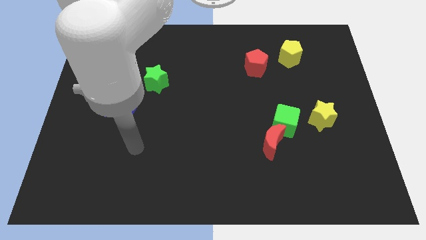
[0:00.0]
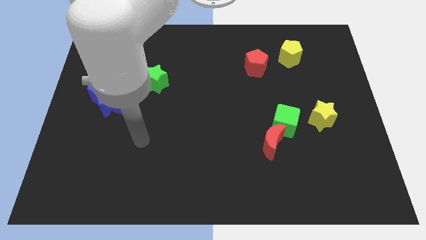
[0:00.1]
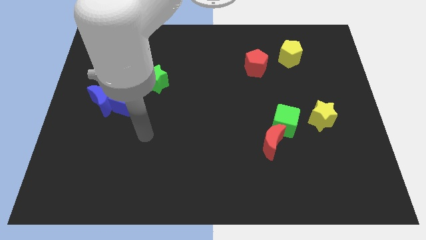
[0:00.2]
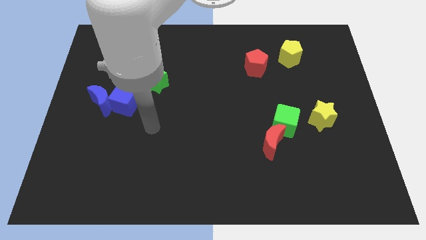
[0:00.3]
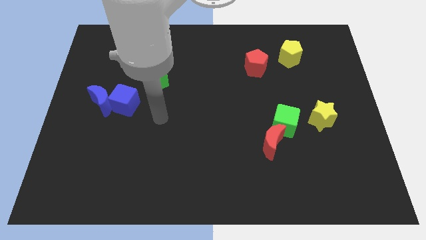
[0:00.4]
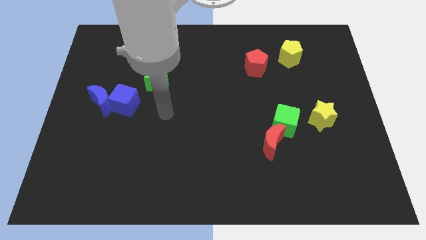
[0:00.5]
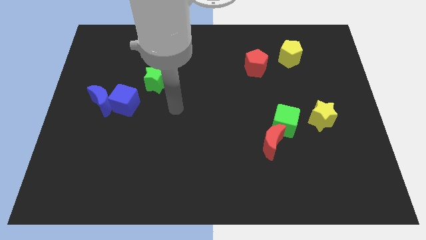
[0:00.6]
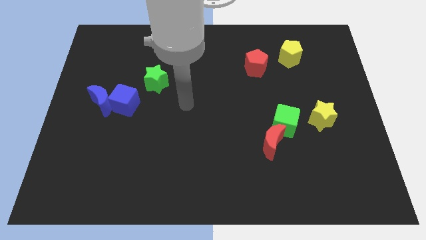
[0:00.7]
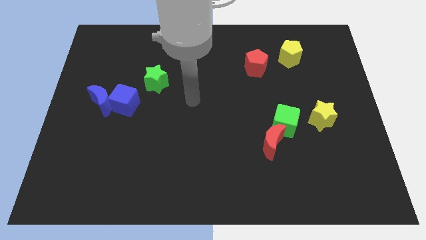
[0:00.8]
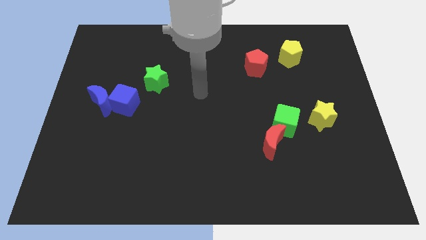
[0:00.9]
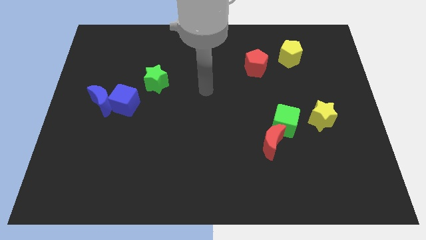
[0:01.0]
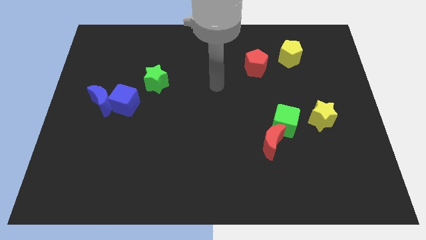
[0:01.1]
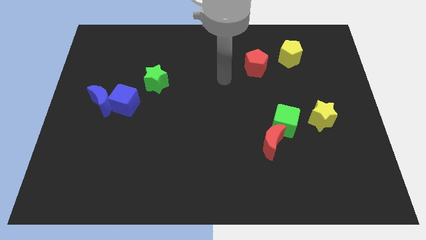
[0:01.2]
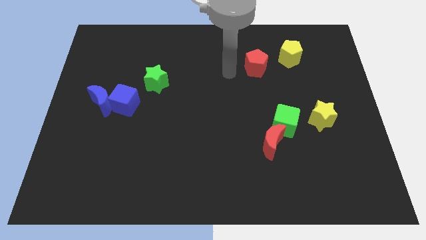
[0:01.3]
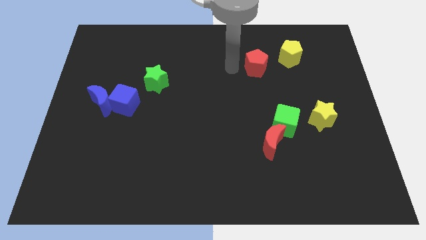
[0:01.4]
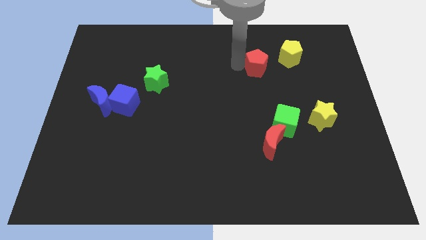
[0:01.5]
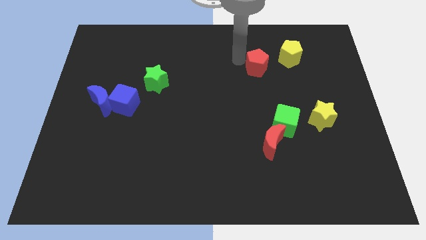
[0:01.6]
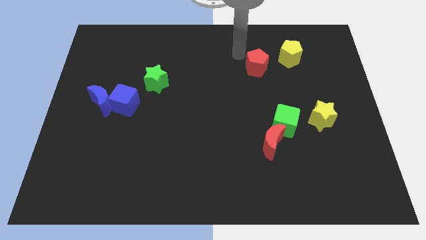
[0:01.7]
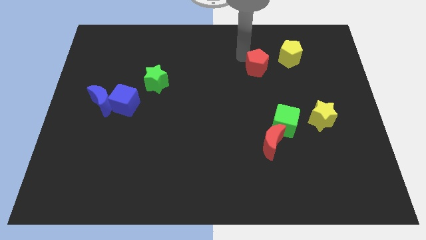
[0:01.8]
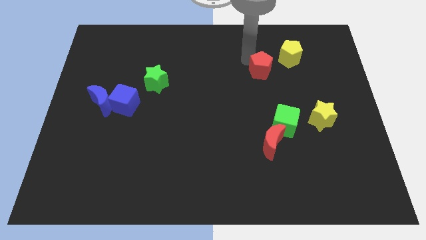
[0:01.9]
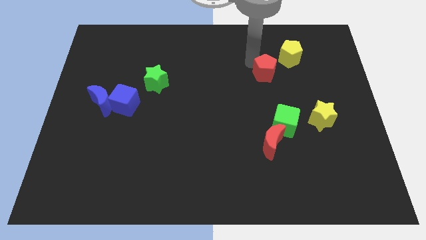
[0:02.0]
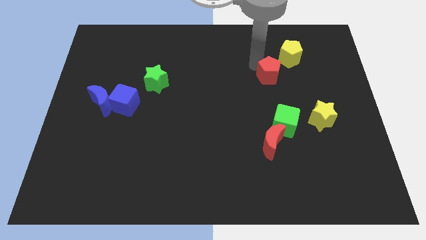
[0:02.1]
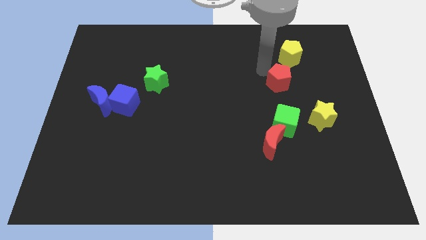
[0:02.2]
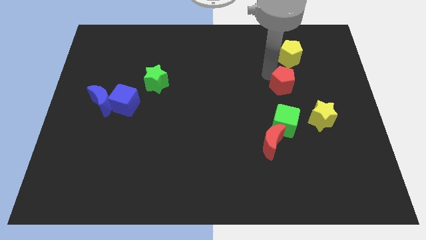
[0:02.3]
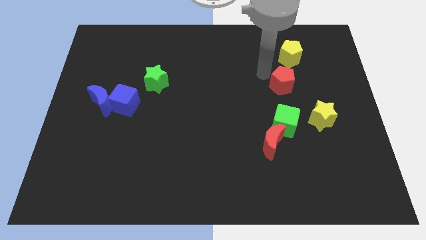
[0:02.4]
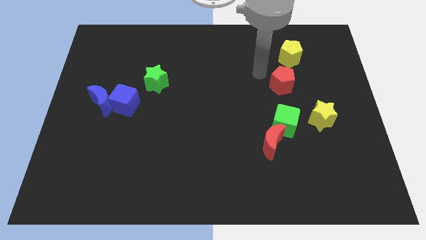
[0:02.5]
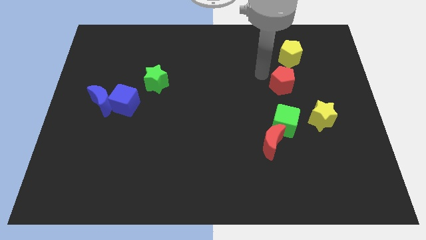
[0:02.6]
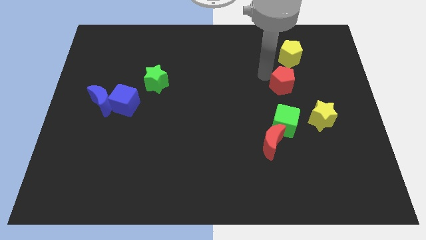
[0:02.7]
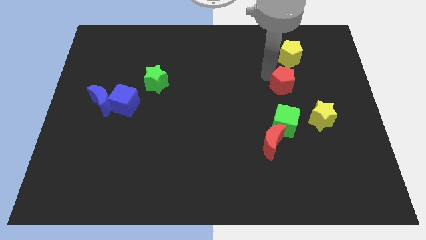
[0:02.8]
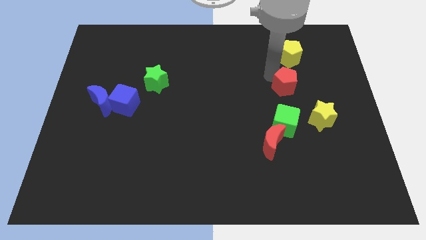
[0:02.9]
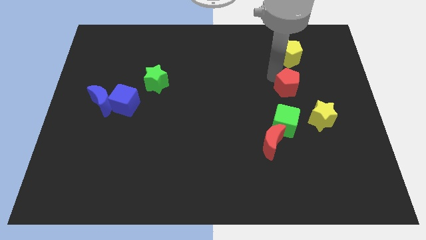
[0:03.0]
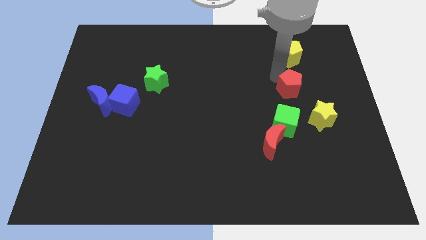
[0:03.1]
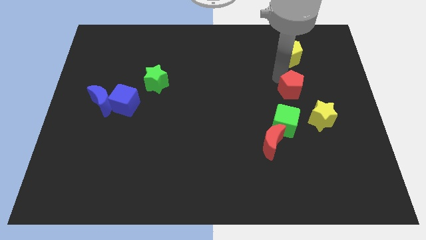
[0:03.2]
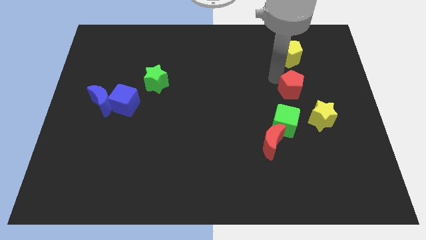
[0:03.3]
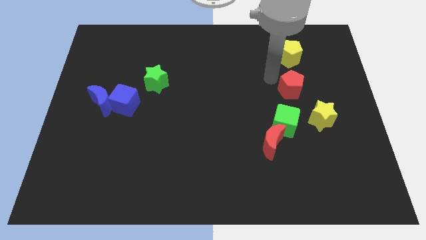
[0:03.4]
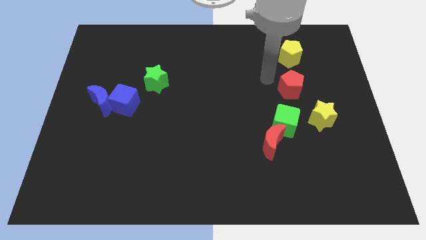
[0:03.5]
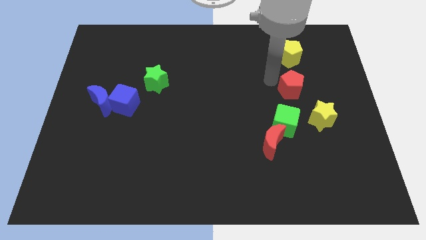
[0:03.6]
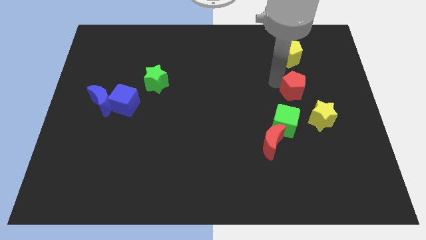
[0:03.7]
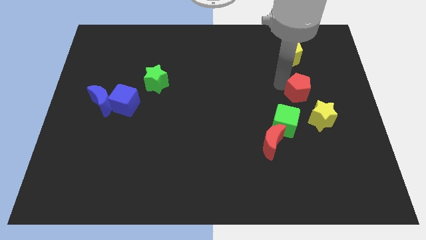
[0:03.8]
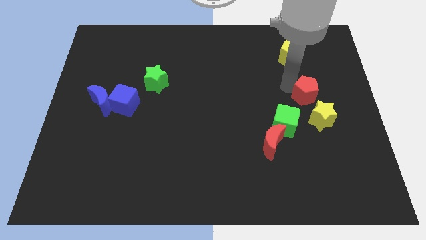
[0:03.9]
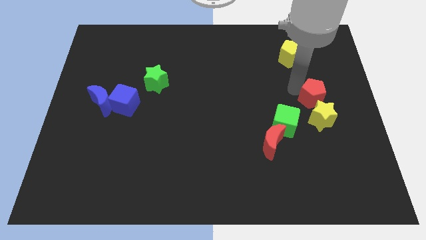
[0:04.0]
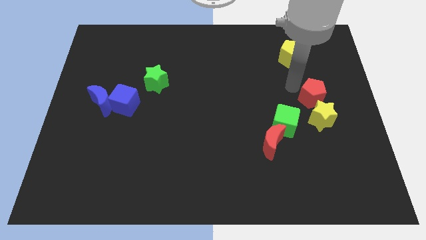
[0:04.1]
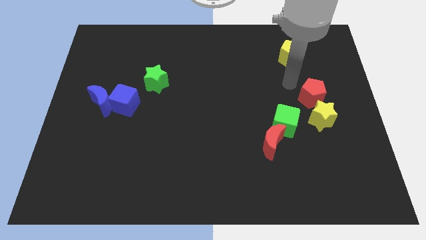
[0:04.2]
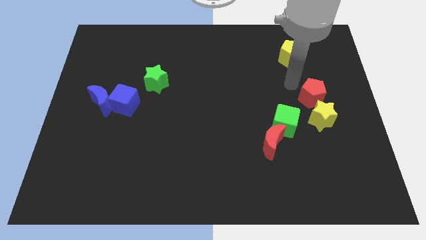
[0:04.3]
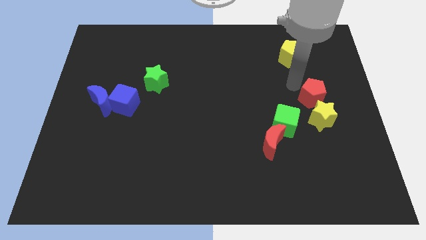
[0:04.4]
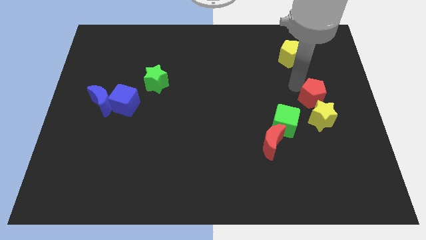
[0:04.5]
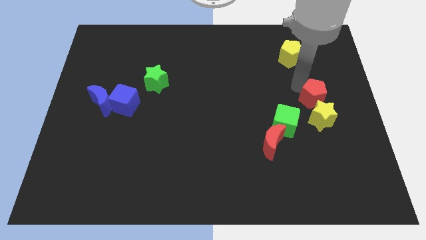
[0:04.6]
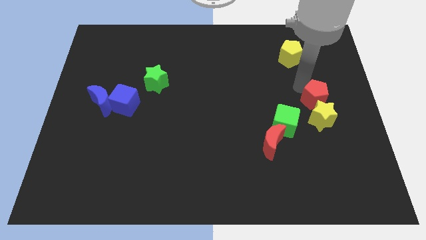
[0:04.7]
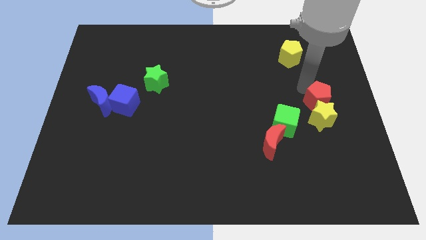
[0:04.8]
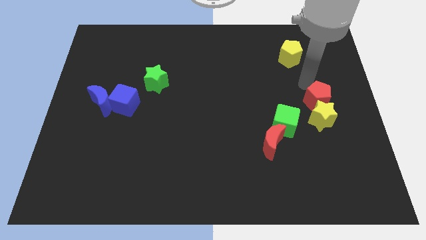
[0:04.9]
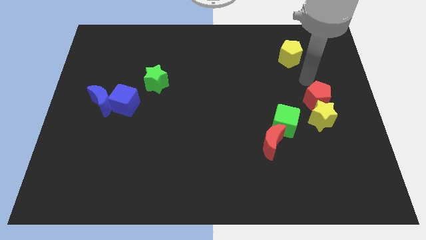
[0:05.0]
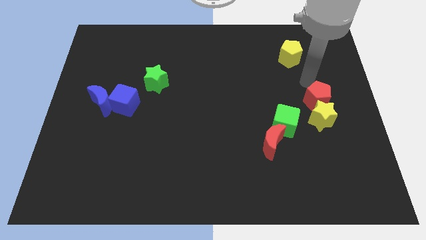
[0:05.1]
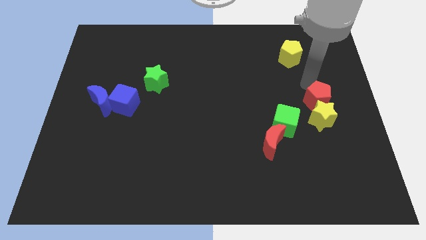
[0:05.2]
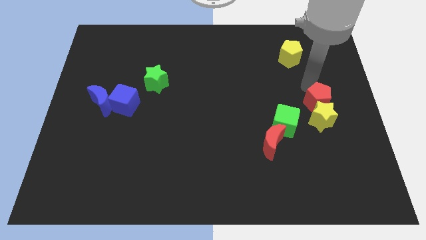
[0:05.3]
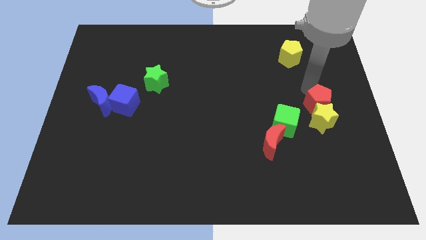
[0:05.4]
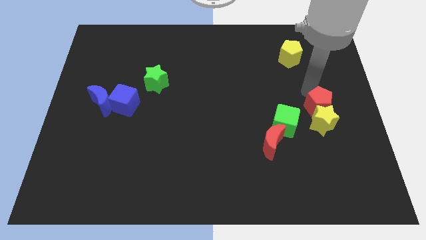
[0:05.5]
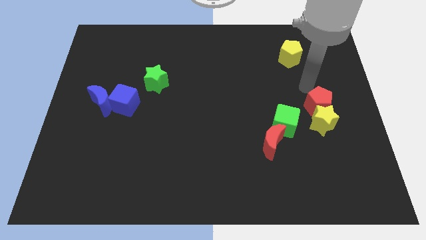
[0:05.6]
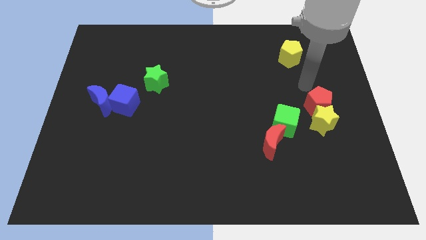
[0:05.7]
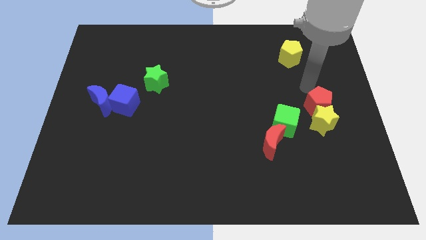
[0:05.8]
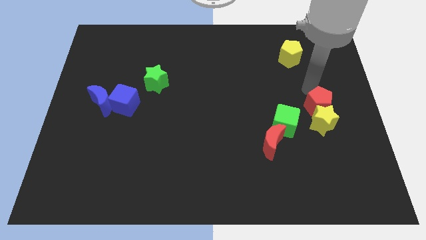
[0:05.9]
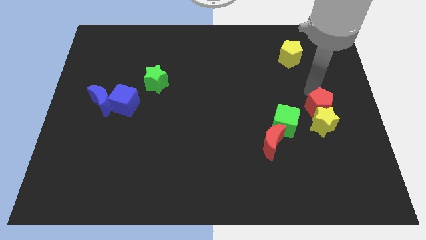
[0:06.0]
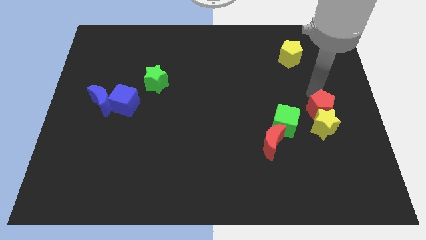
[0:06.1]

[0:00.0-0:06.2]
slide the red pentagon to the right side of the green cube

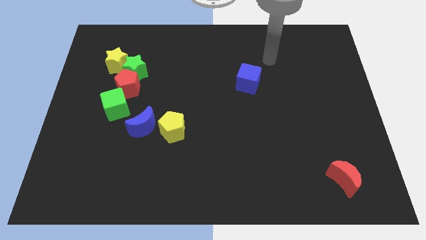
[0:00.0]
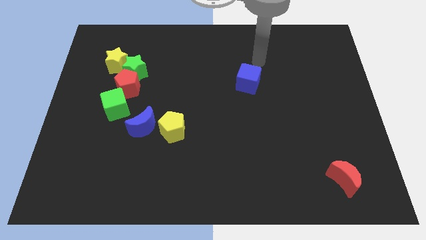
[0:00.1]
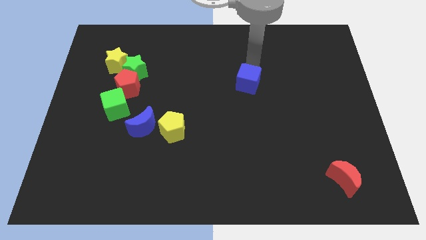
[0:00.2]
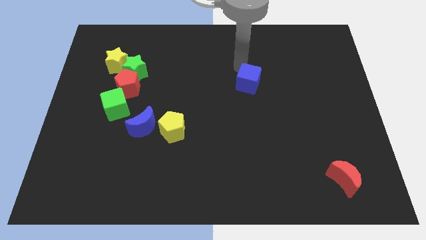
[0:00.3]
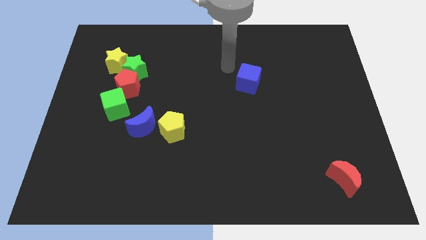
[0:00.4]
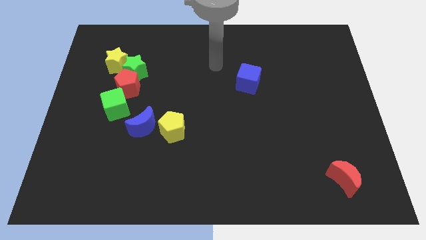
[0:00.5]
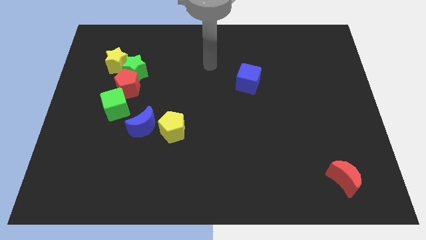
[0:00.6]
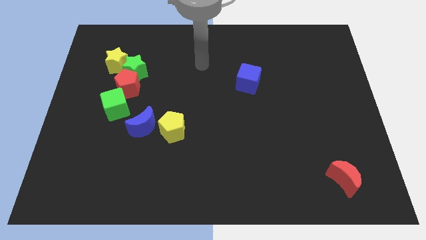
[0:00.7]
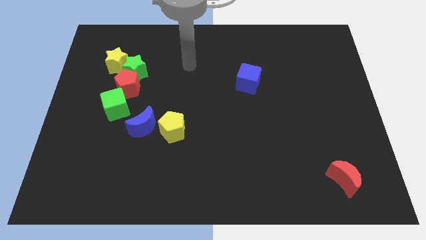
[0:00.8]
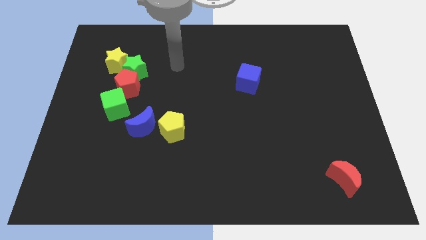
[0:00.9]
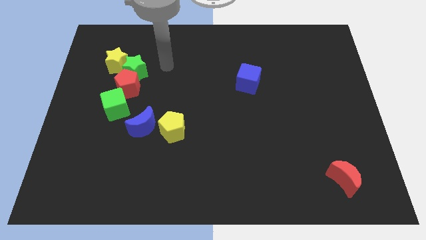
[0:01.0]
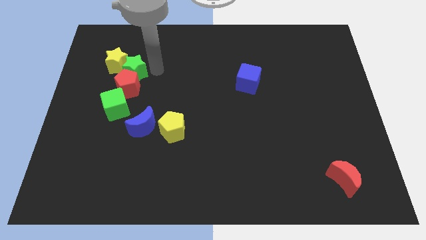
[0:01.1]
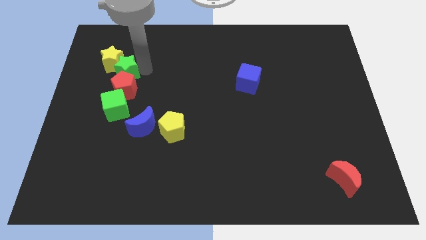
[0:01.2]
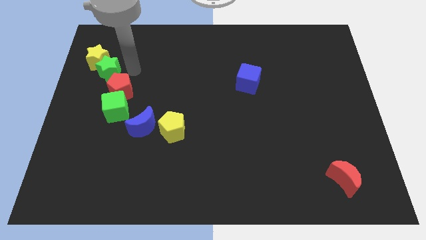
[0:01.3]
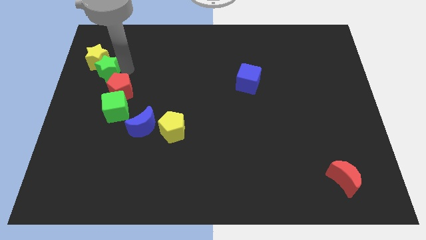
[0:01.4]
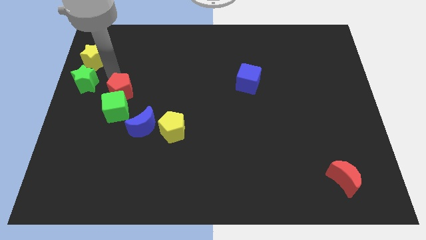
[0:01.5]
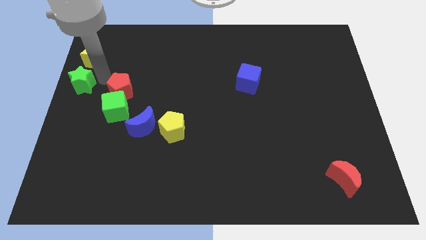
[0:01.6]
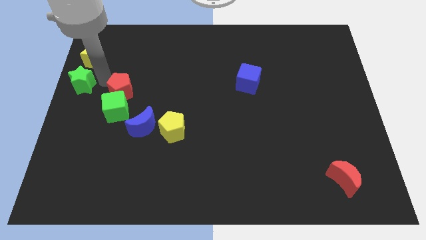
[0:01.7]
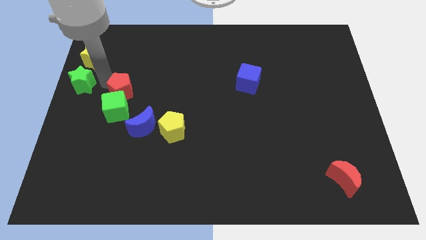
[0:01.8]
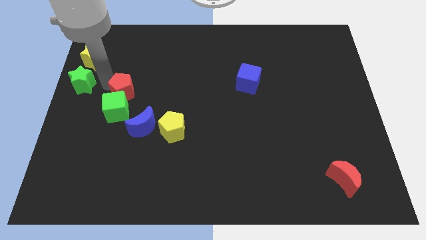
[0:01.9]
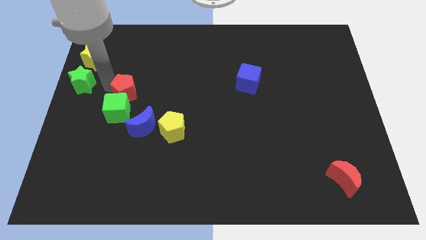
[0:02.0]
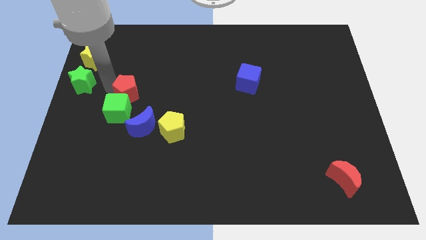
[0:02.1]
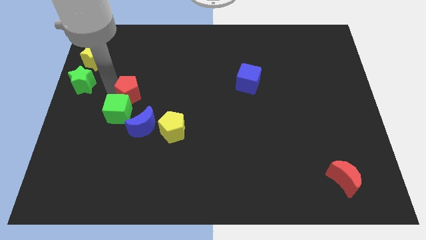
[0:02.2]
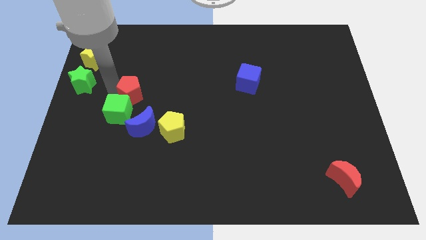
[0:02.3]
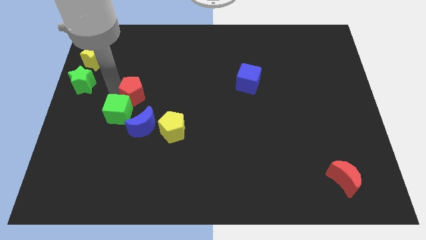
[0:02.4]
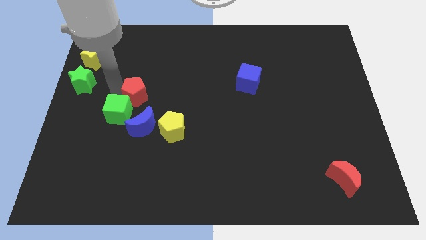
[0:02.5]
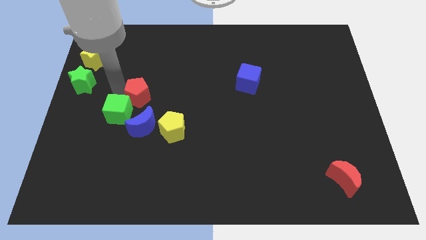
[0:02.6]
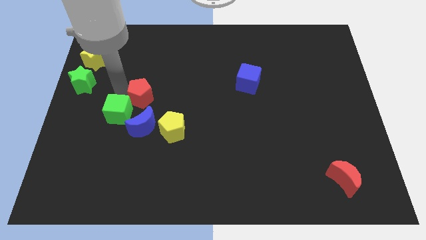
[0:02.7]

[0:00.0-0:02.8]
put the red pentagon to the top left side of the yellow pentagon
